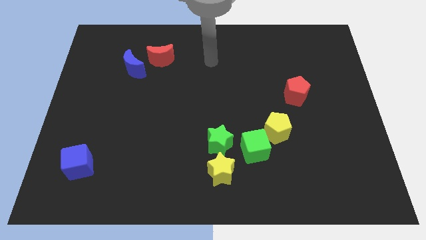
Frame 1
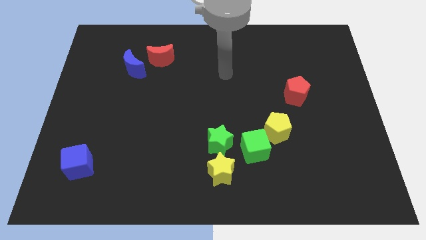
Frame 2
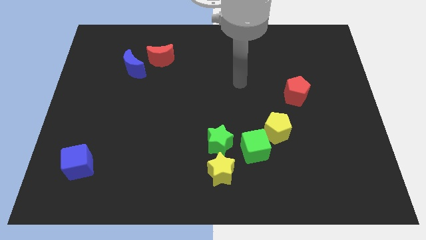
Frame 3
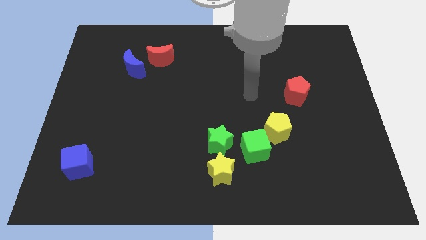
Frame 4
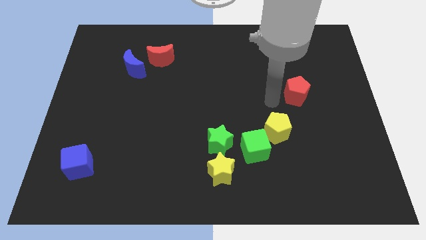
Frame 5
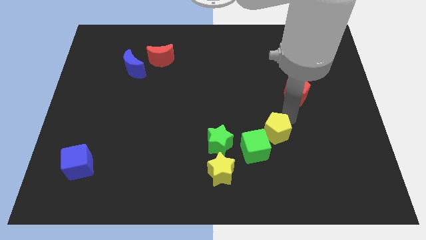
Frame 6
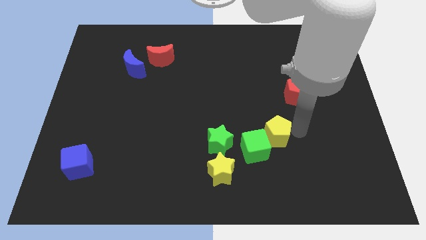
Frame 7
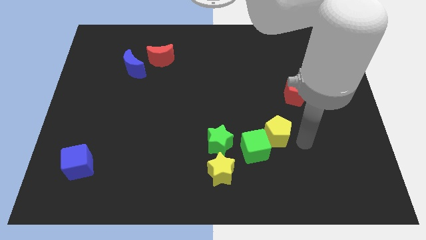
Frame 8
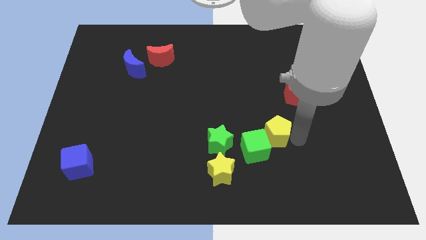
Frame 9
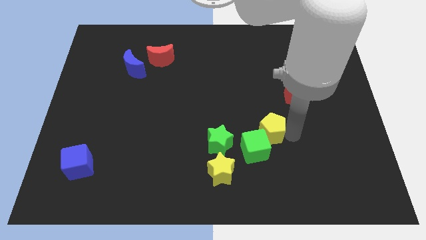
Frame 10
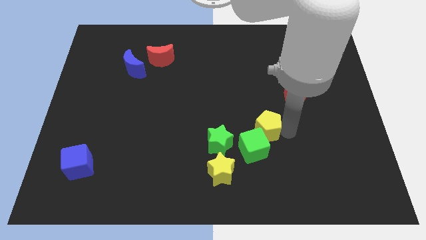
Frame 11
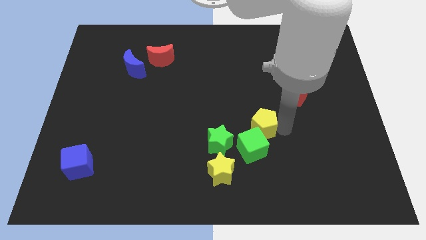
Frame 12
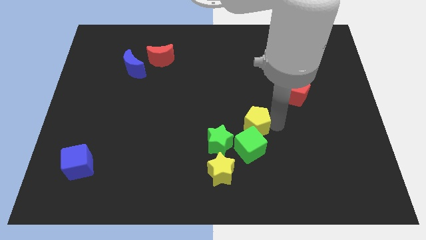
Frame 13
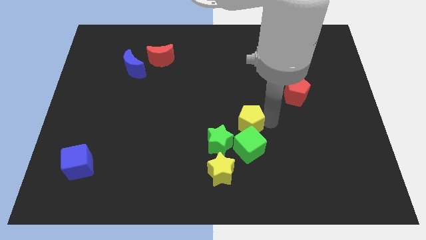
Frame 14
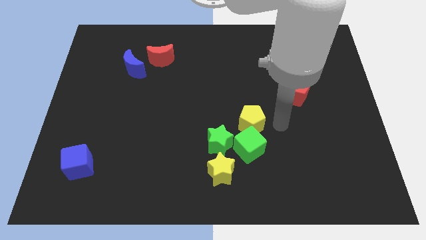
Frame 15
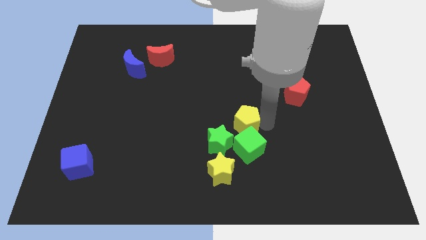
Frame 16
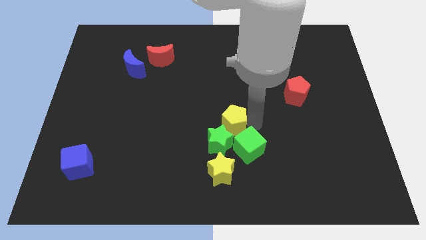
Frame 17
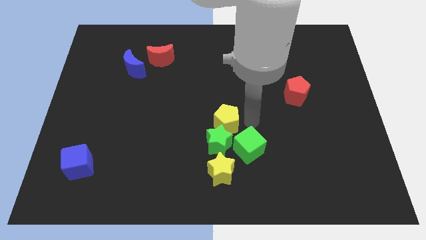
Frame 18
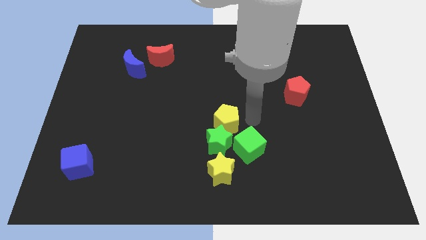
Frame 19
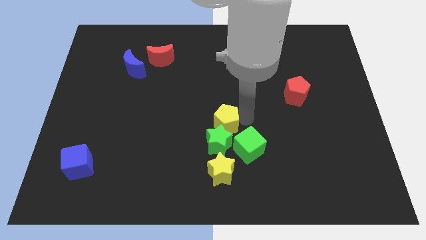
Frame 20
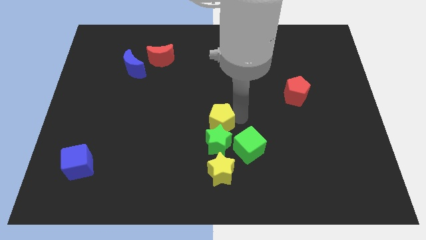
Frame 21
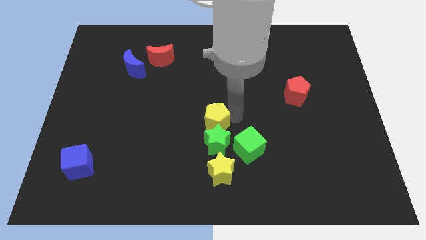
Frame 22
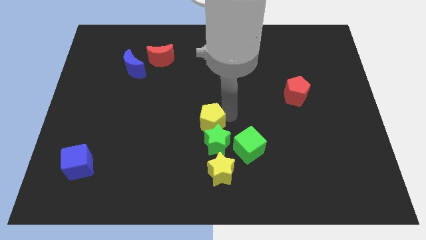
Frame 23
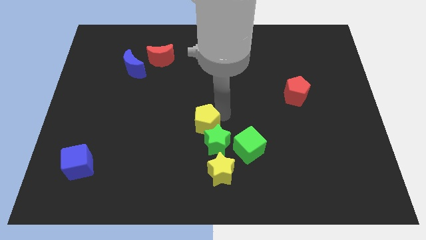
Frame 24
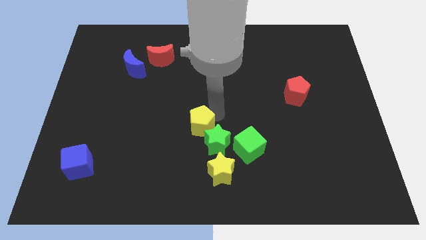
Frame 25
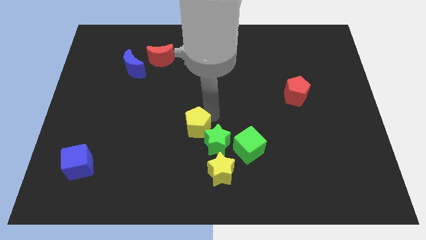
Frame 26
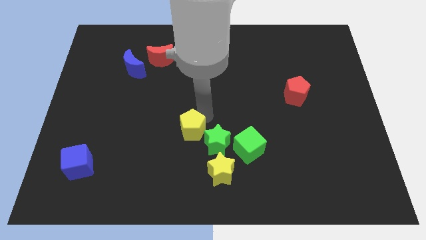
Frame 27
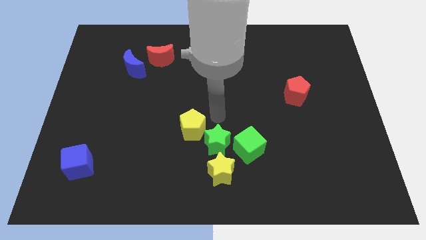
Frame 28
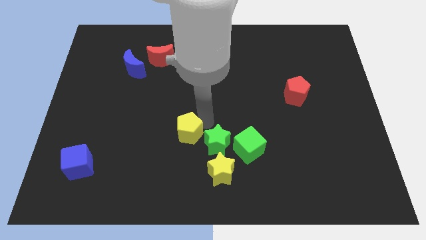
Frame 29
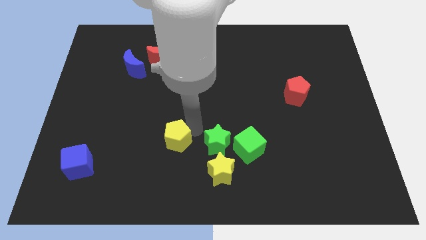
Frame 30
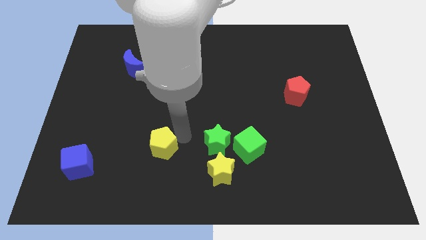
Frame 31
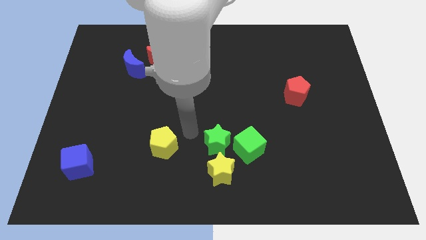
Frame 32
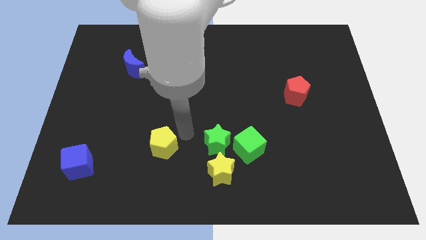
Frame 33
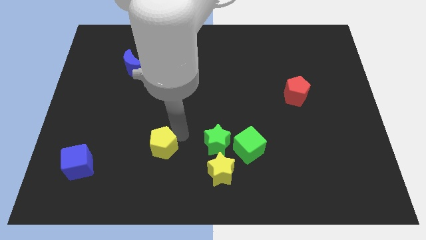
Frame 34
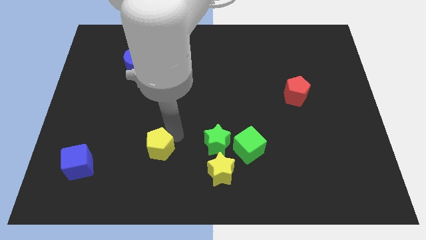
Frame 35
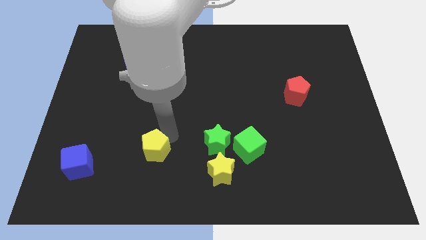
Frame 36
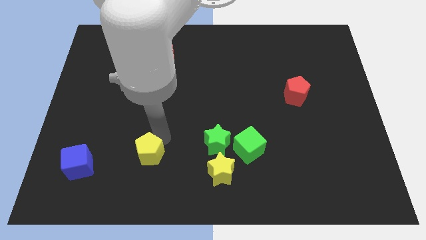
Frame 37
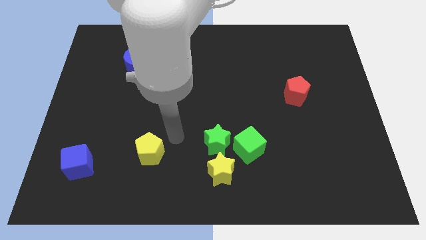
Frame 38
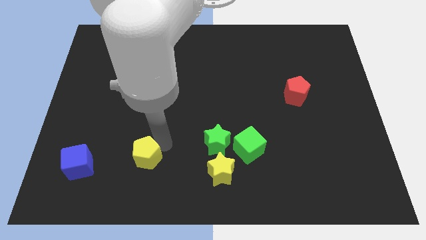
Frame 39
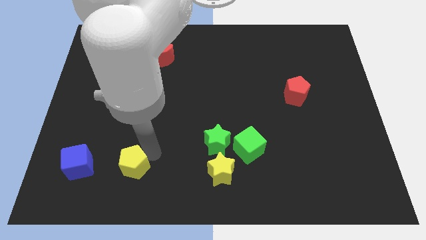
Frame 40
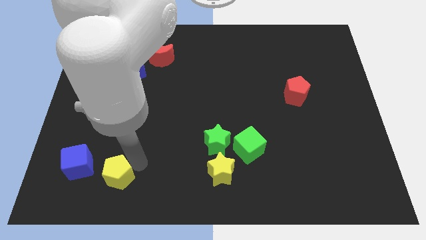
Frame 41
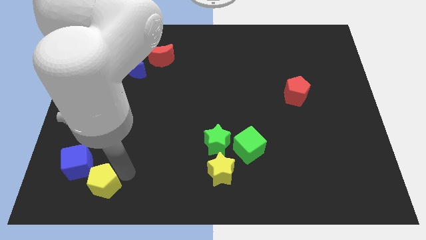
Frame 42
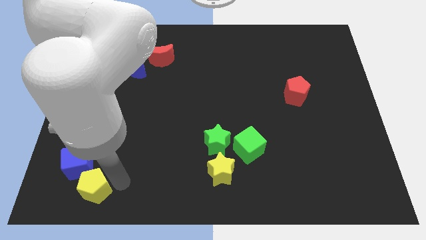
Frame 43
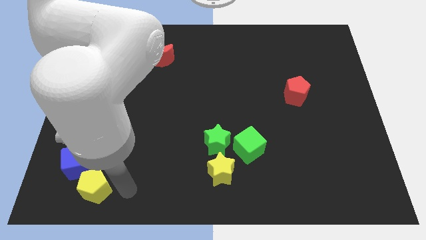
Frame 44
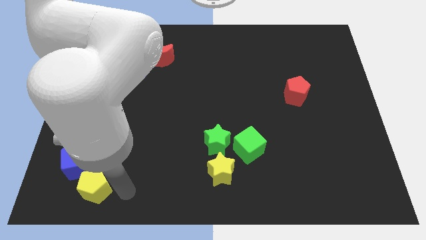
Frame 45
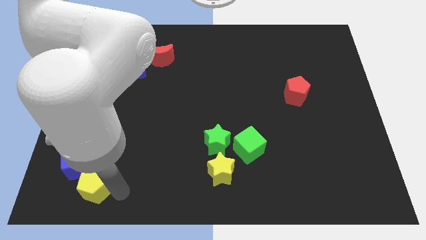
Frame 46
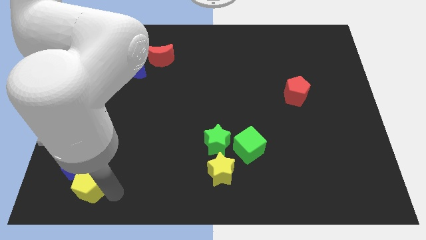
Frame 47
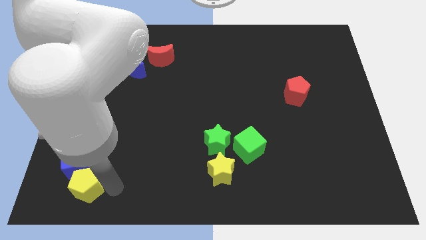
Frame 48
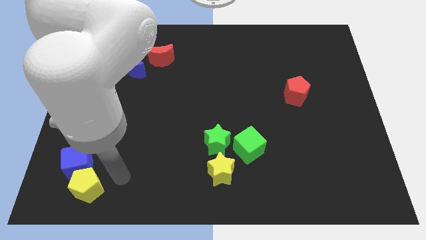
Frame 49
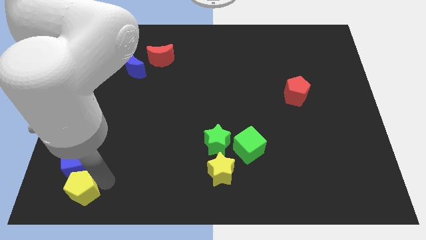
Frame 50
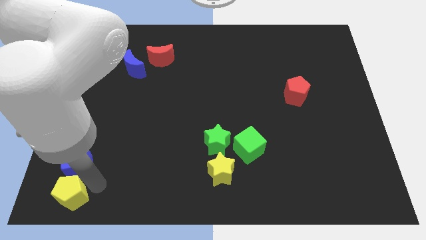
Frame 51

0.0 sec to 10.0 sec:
put the yellow pentagon to the bottom left of the board

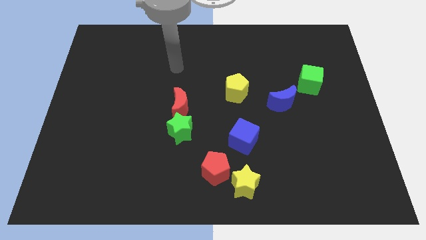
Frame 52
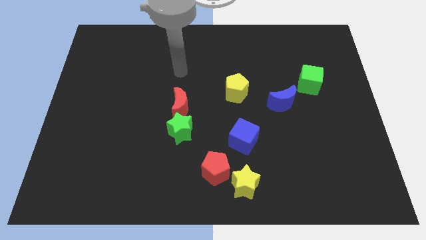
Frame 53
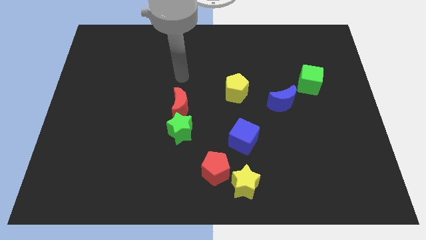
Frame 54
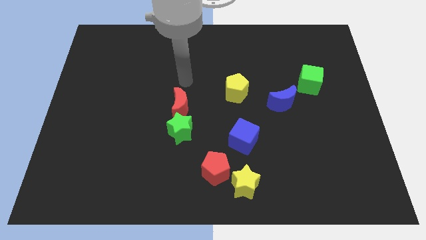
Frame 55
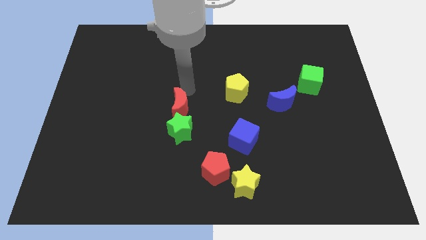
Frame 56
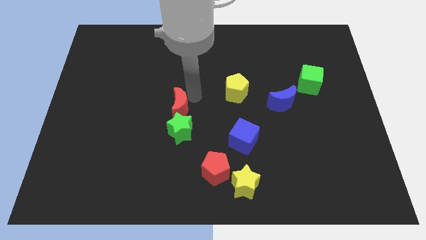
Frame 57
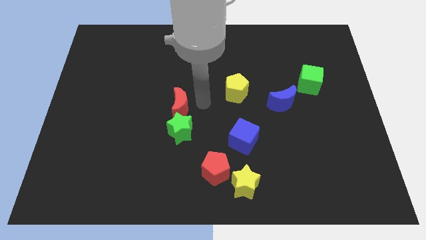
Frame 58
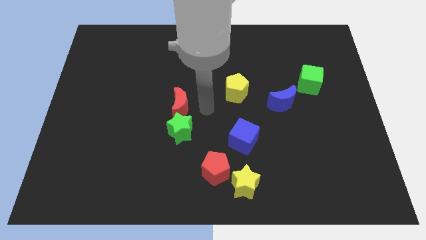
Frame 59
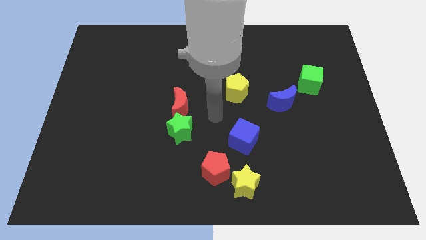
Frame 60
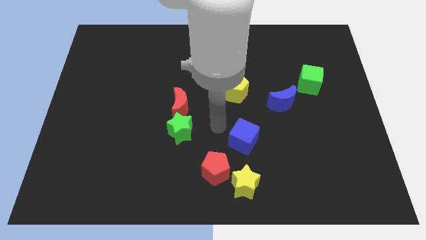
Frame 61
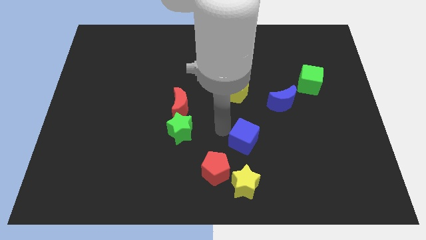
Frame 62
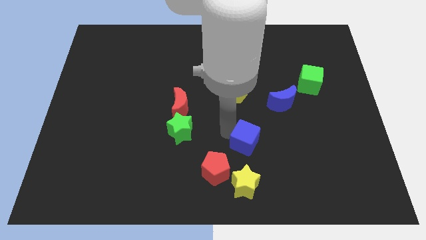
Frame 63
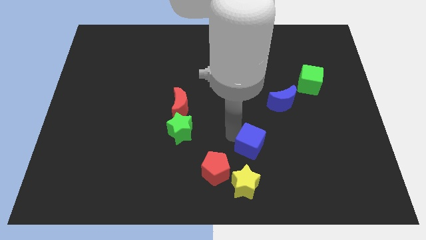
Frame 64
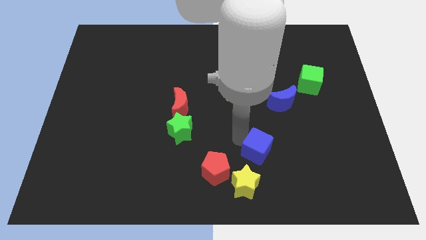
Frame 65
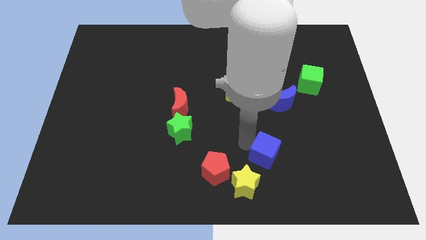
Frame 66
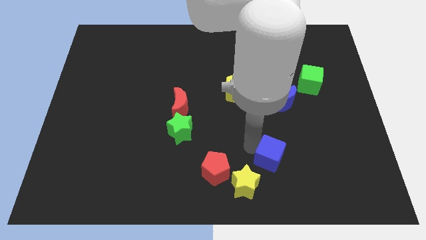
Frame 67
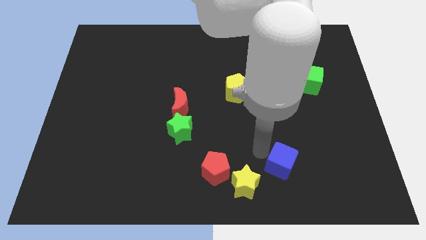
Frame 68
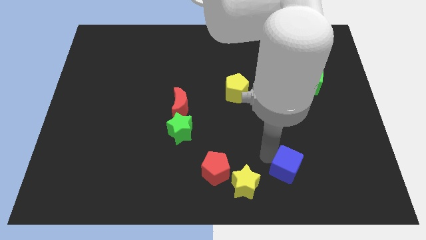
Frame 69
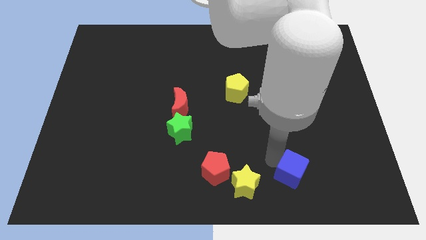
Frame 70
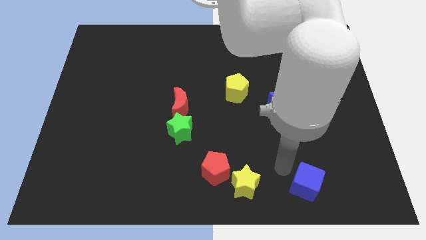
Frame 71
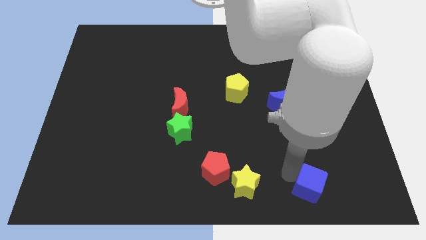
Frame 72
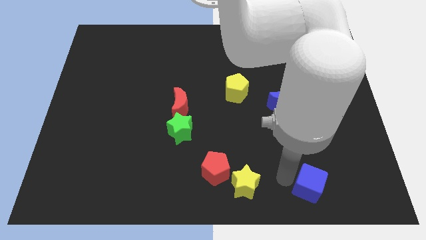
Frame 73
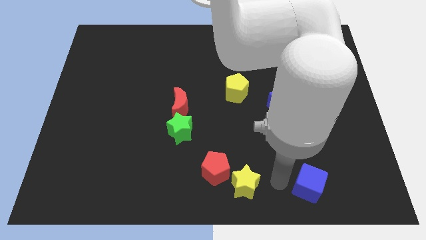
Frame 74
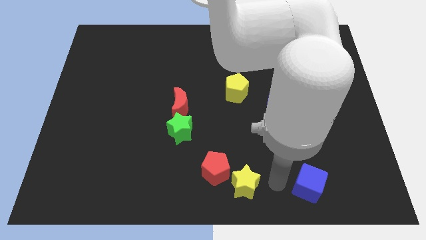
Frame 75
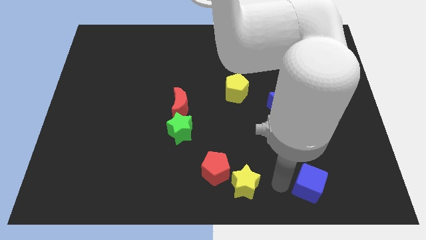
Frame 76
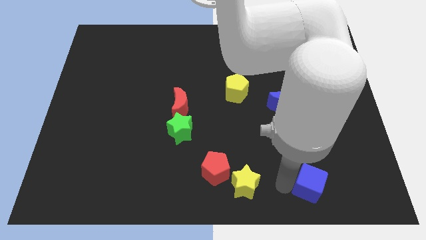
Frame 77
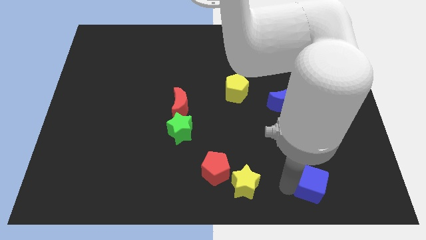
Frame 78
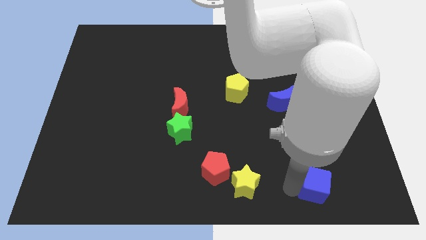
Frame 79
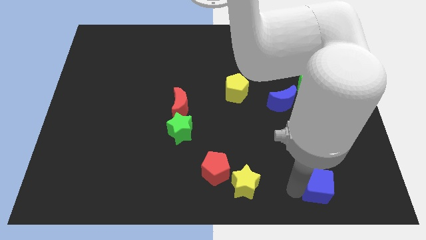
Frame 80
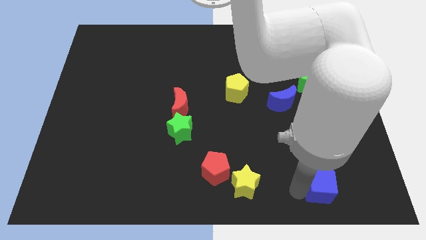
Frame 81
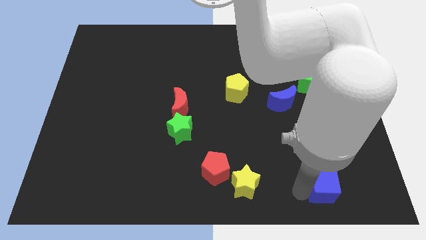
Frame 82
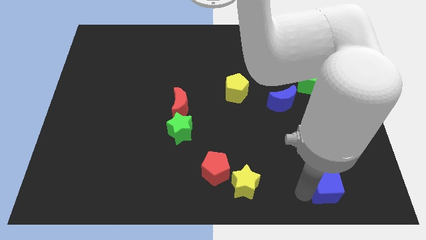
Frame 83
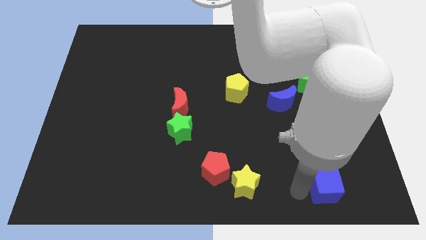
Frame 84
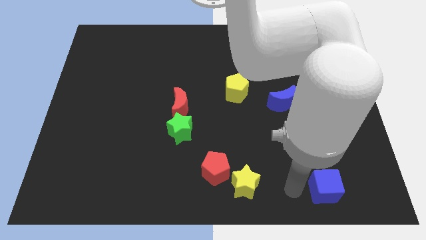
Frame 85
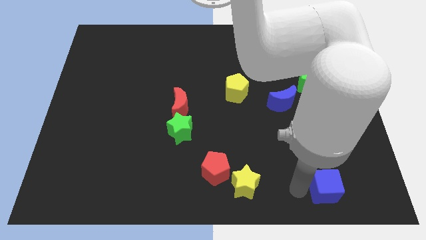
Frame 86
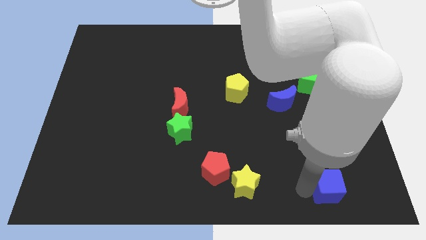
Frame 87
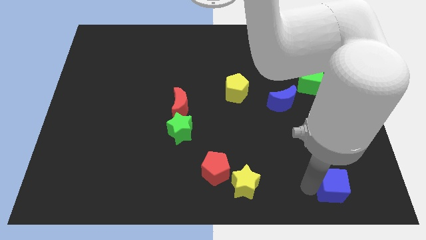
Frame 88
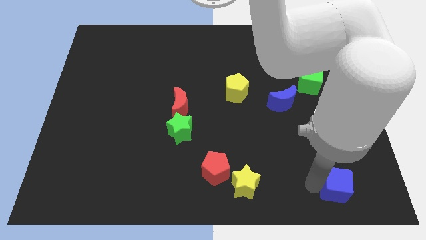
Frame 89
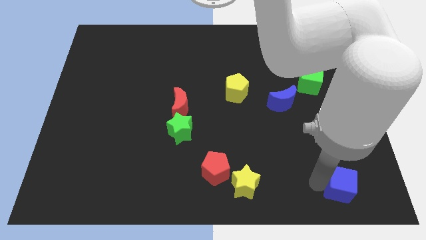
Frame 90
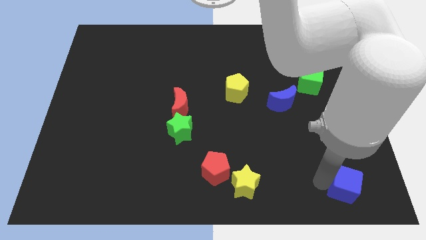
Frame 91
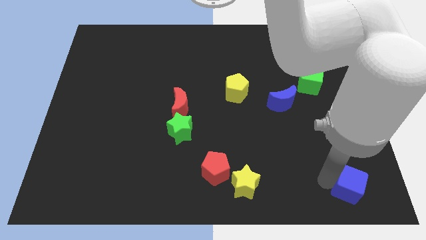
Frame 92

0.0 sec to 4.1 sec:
push the blue cube to the lower right corner
